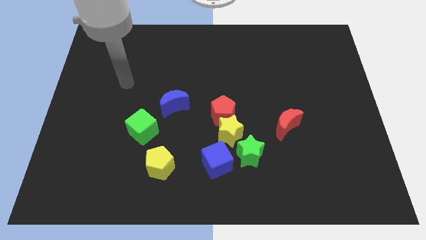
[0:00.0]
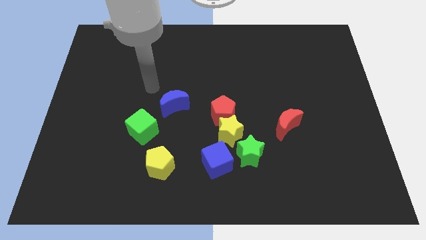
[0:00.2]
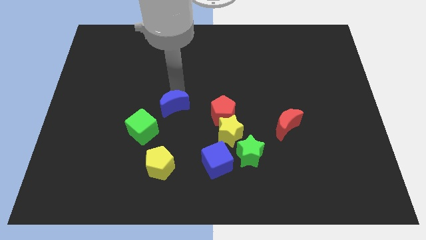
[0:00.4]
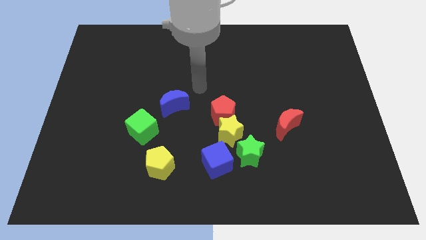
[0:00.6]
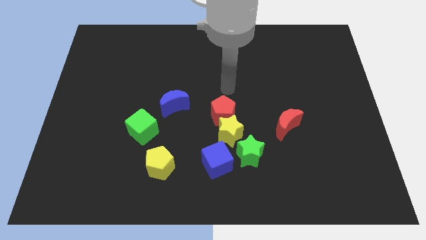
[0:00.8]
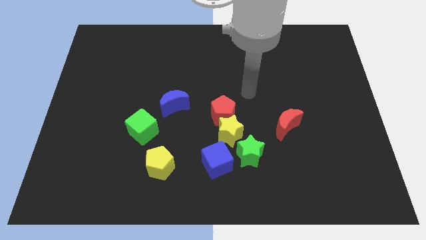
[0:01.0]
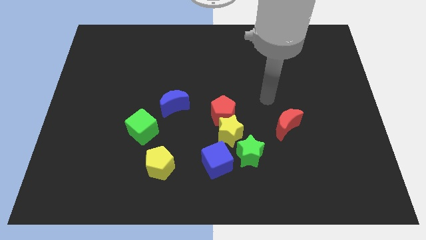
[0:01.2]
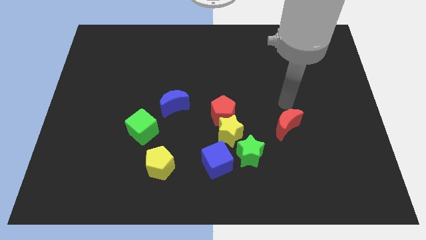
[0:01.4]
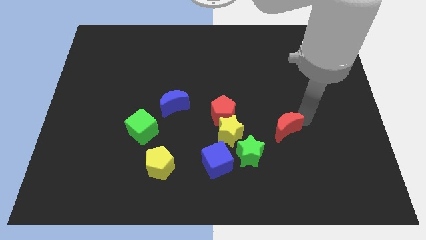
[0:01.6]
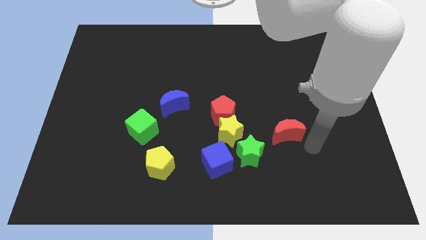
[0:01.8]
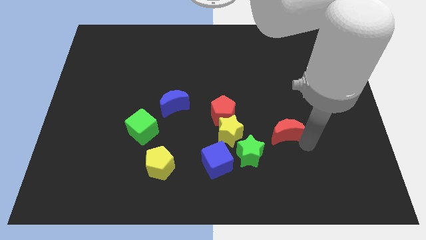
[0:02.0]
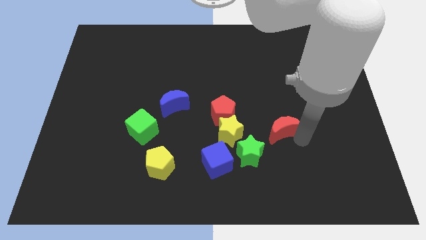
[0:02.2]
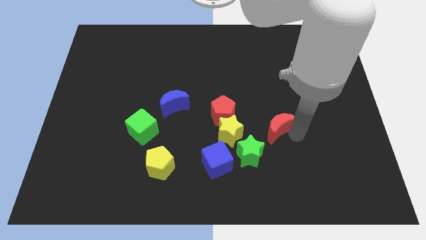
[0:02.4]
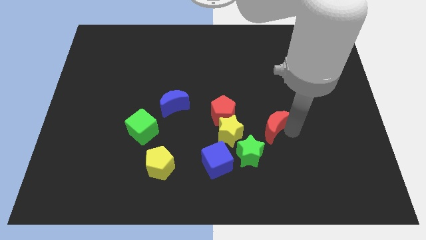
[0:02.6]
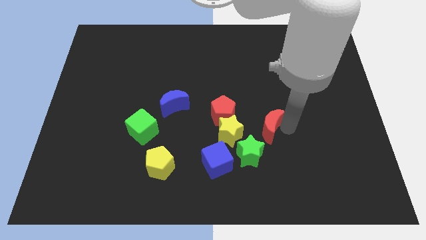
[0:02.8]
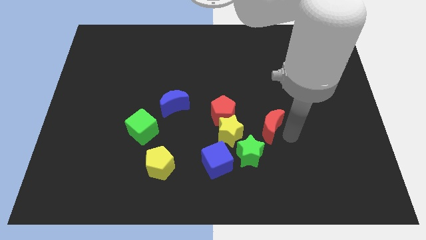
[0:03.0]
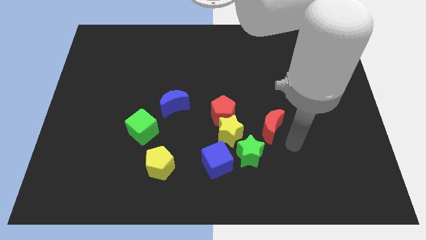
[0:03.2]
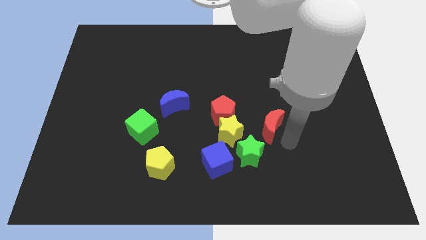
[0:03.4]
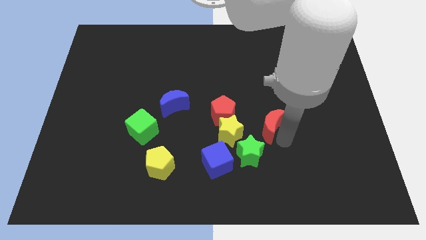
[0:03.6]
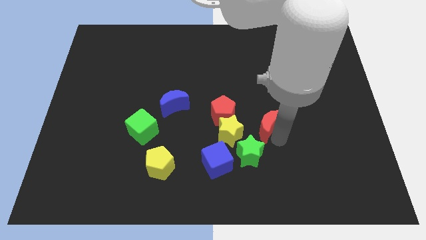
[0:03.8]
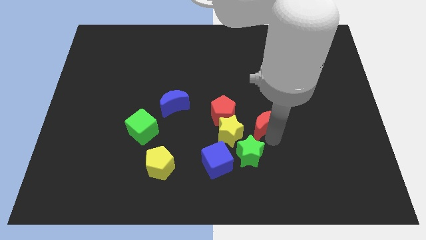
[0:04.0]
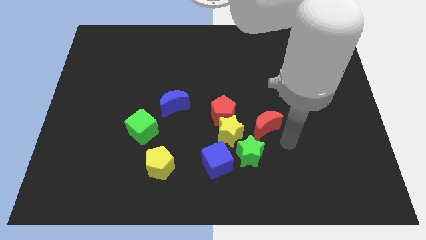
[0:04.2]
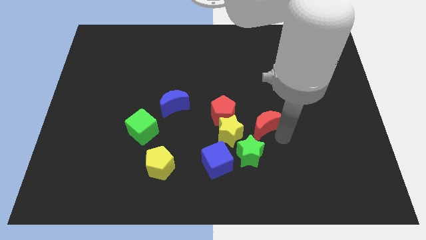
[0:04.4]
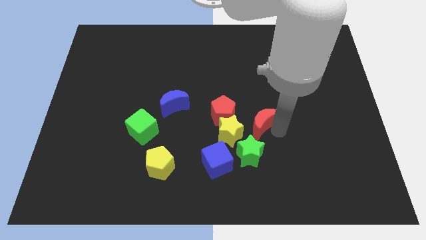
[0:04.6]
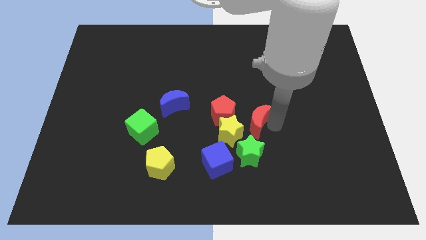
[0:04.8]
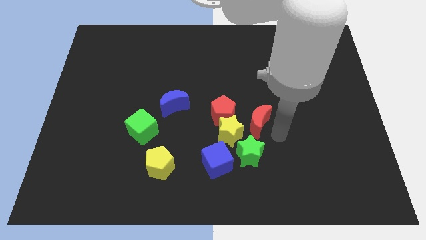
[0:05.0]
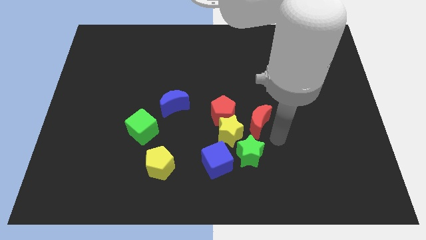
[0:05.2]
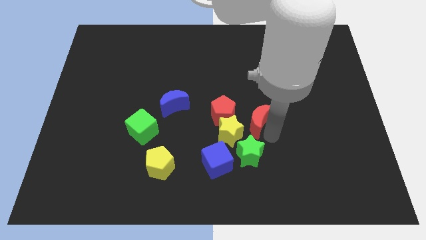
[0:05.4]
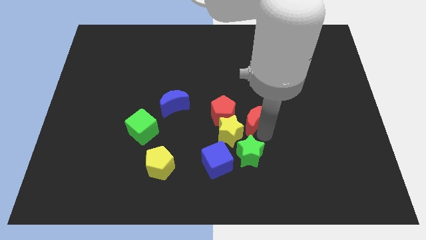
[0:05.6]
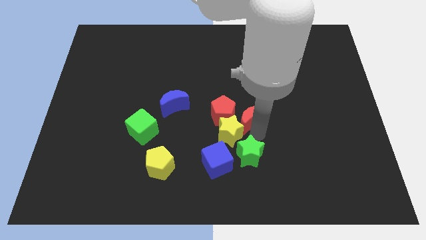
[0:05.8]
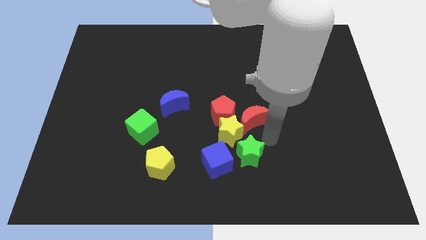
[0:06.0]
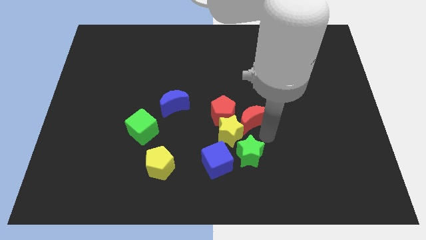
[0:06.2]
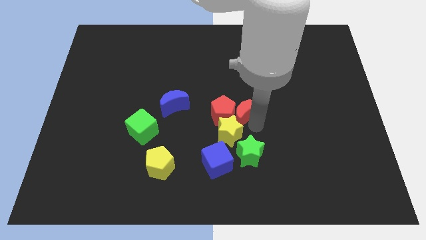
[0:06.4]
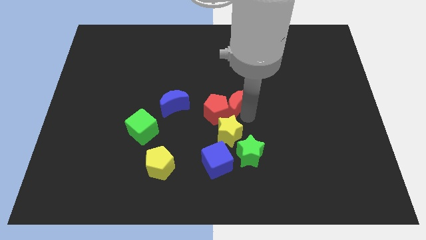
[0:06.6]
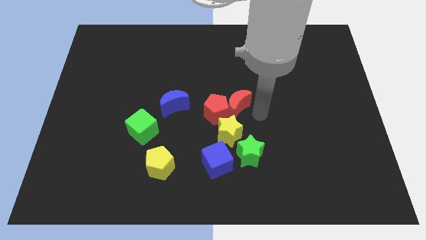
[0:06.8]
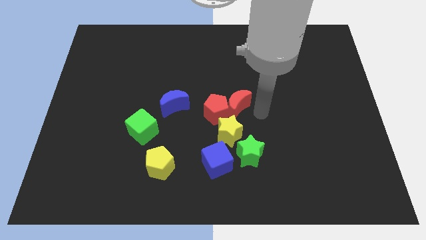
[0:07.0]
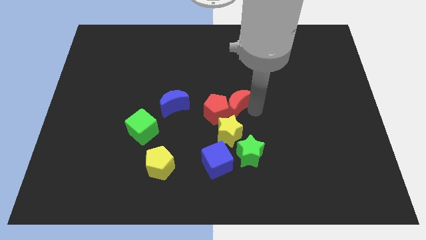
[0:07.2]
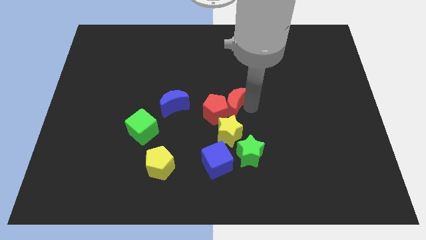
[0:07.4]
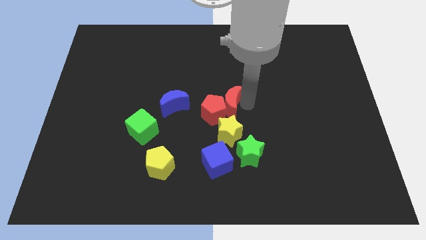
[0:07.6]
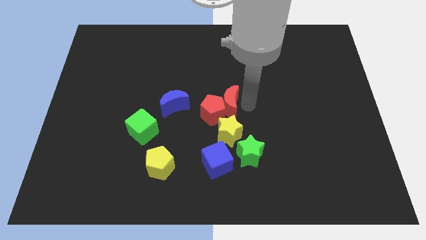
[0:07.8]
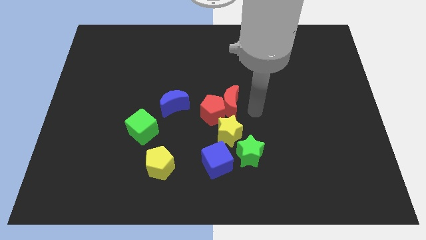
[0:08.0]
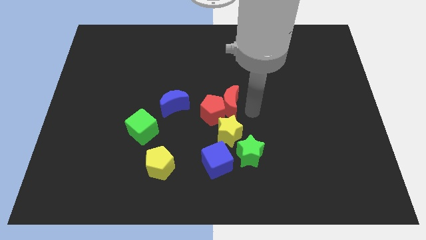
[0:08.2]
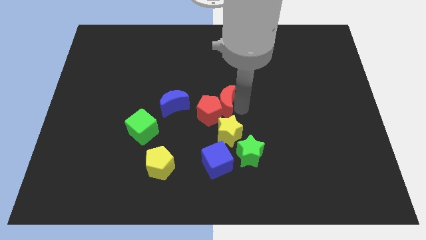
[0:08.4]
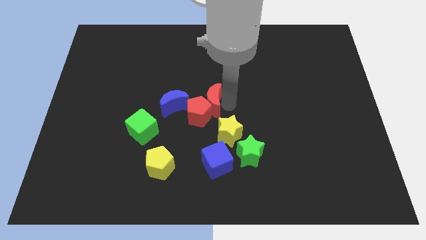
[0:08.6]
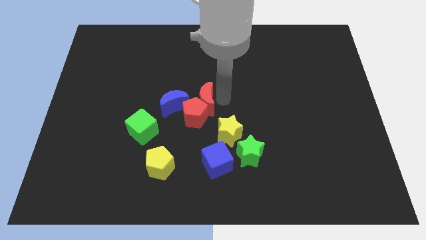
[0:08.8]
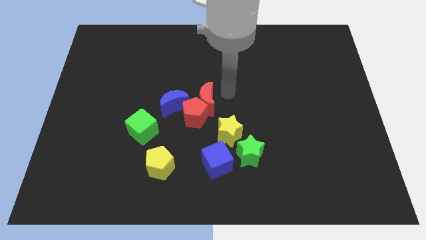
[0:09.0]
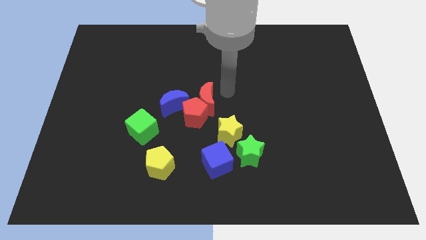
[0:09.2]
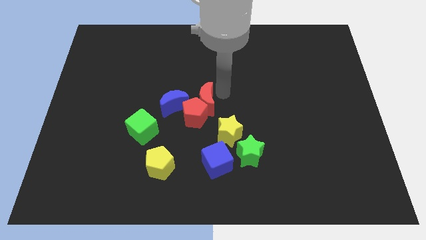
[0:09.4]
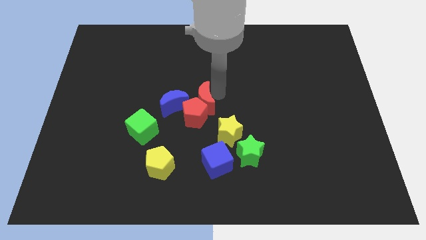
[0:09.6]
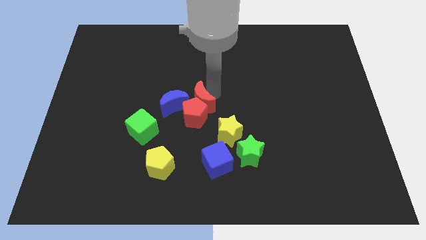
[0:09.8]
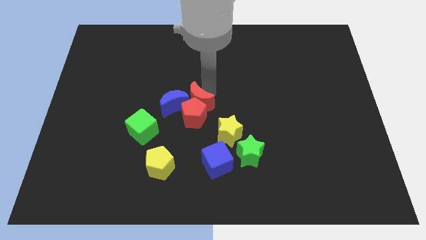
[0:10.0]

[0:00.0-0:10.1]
slide the red moon to the blue moon

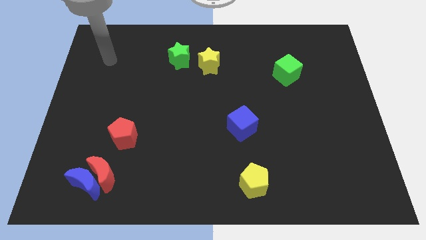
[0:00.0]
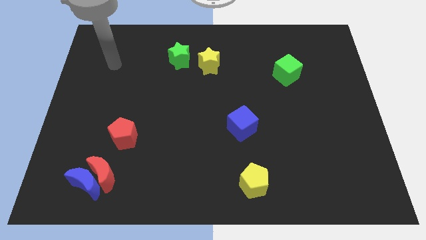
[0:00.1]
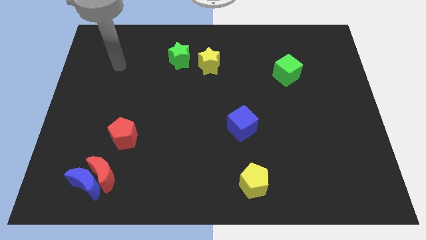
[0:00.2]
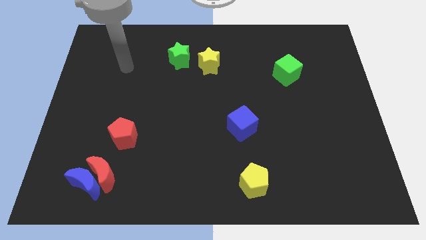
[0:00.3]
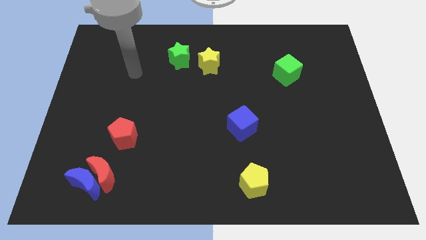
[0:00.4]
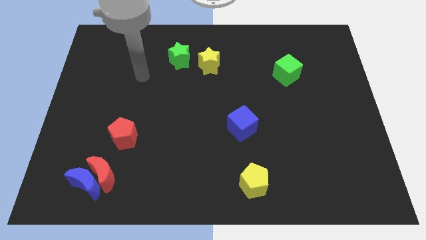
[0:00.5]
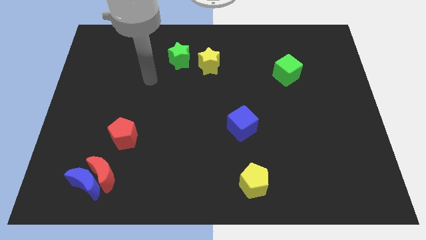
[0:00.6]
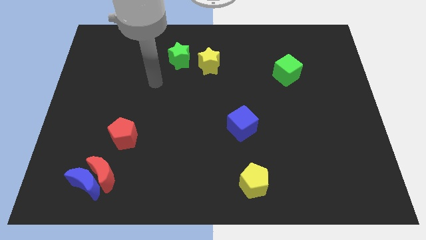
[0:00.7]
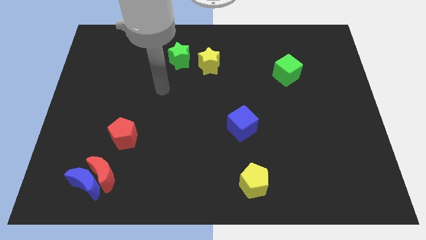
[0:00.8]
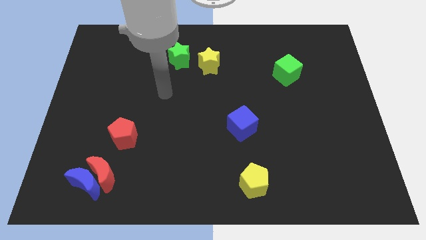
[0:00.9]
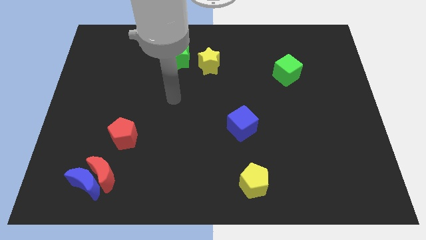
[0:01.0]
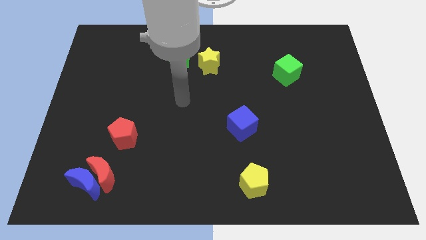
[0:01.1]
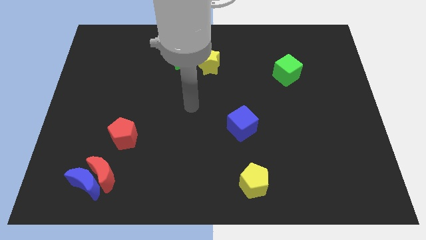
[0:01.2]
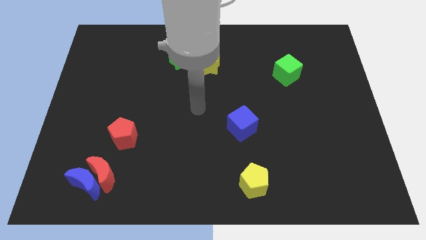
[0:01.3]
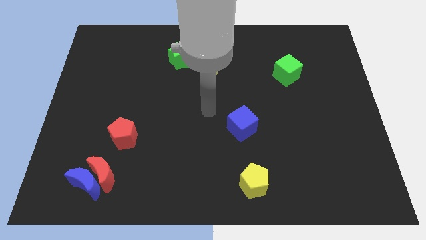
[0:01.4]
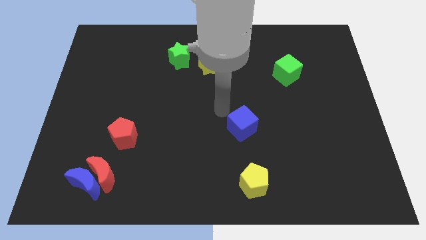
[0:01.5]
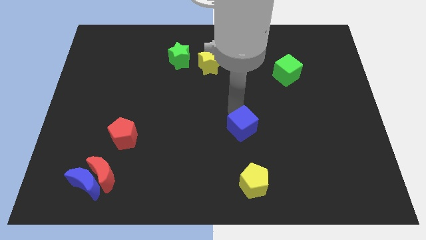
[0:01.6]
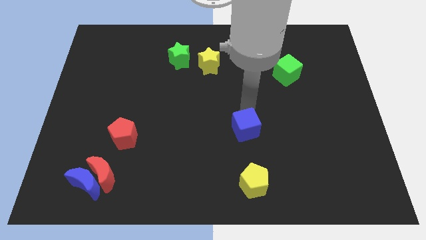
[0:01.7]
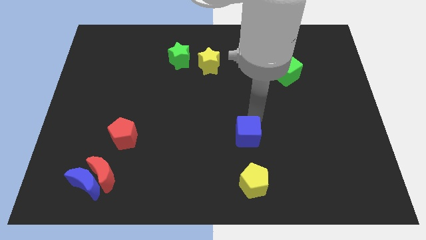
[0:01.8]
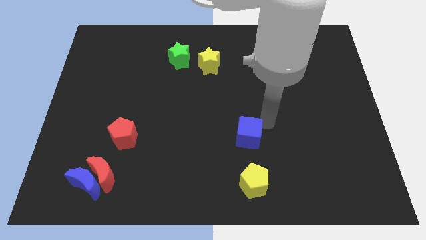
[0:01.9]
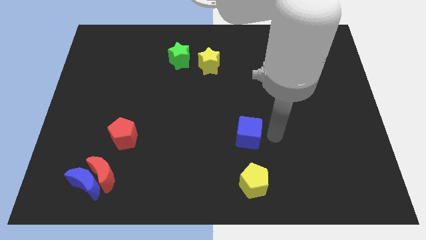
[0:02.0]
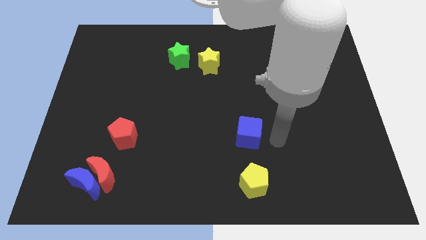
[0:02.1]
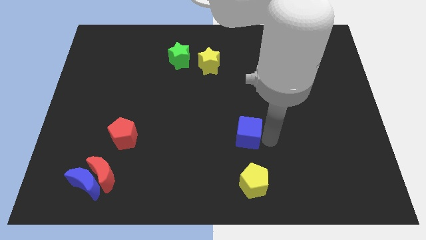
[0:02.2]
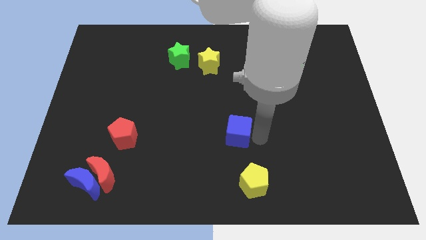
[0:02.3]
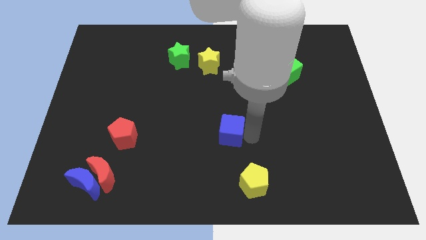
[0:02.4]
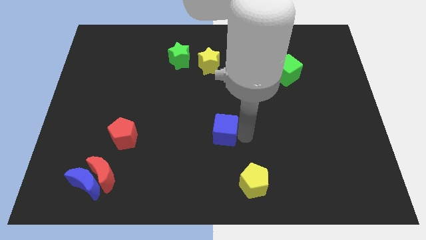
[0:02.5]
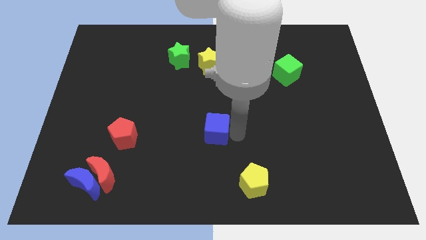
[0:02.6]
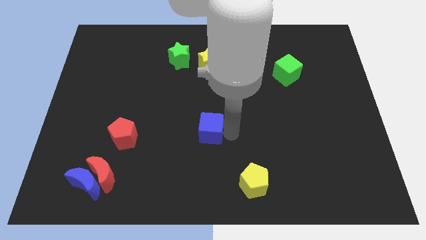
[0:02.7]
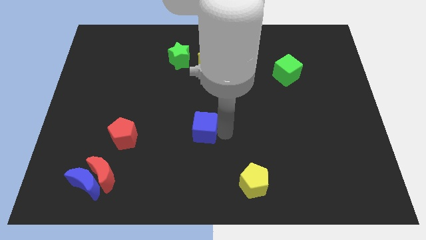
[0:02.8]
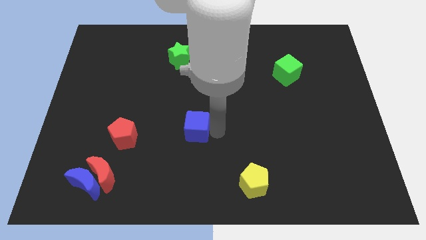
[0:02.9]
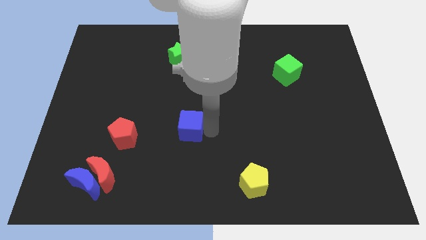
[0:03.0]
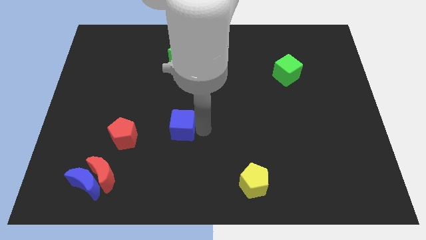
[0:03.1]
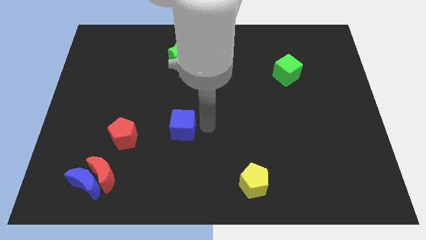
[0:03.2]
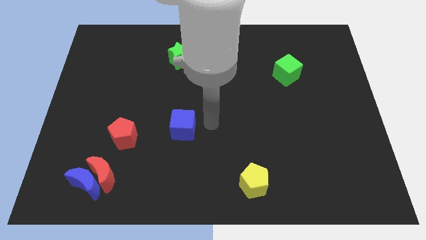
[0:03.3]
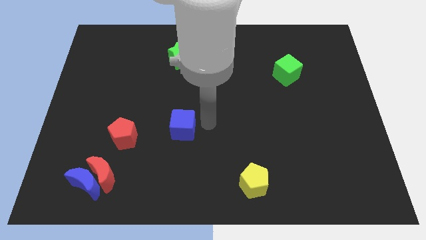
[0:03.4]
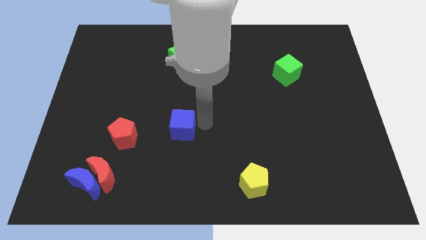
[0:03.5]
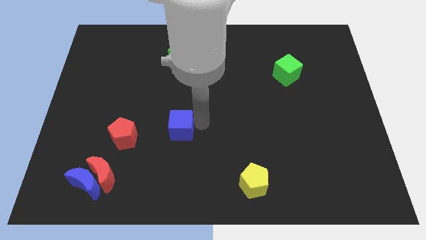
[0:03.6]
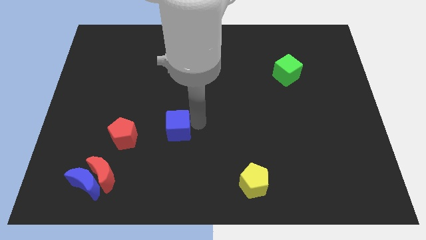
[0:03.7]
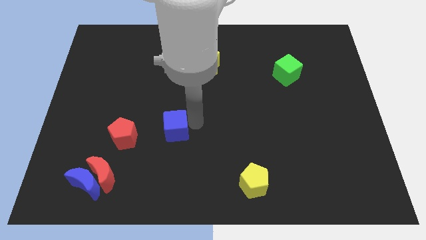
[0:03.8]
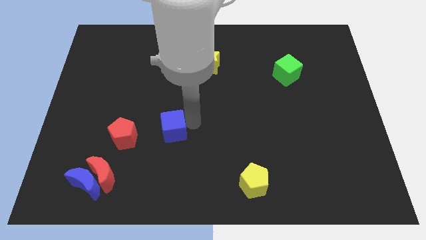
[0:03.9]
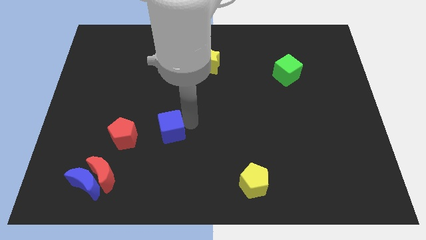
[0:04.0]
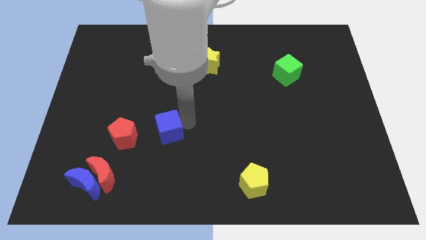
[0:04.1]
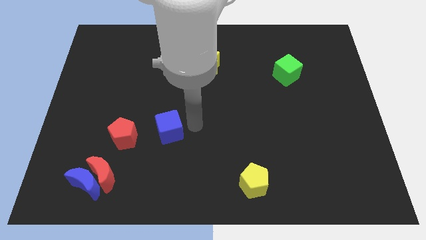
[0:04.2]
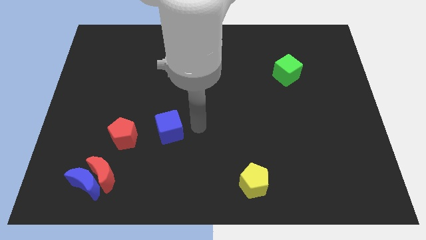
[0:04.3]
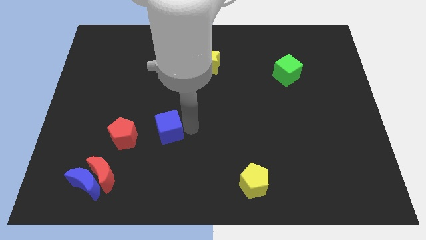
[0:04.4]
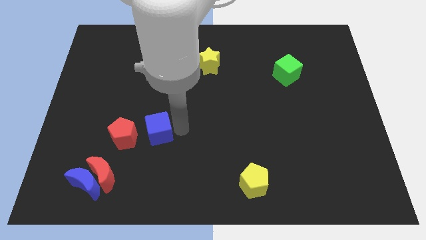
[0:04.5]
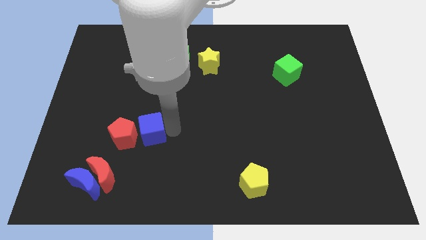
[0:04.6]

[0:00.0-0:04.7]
put the blue cube towards the red pentagon
